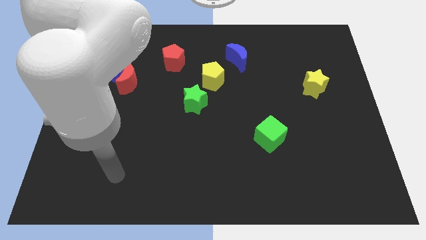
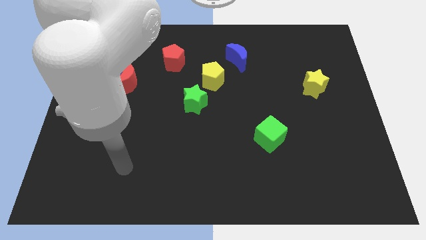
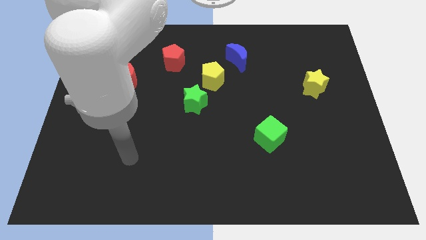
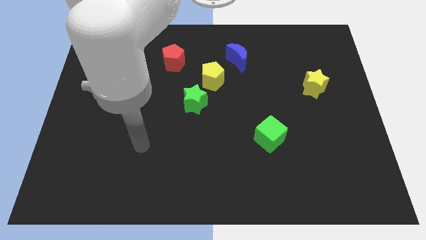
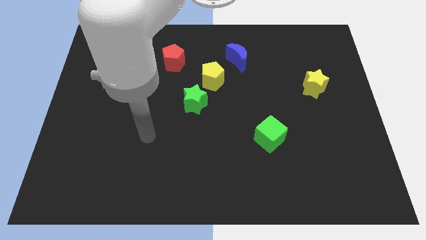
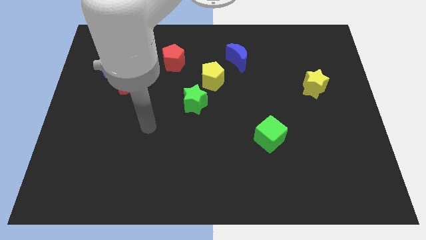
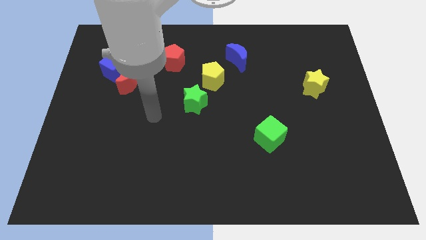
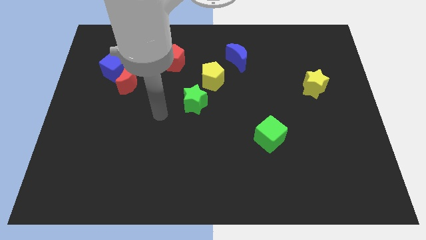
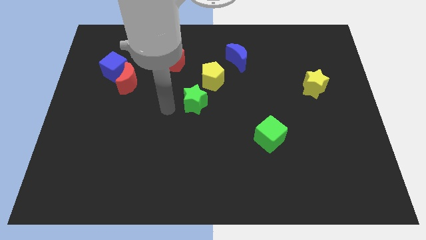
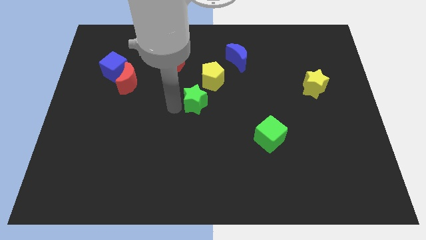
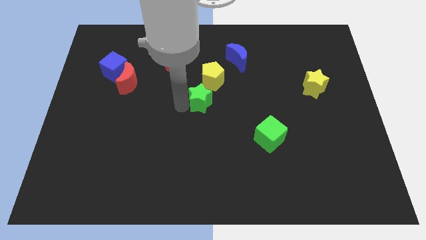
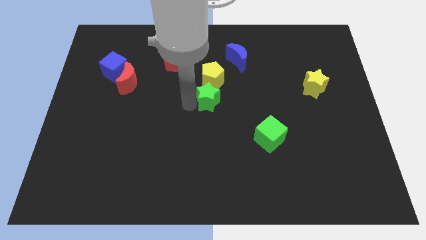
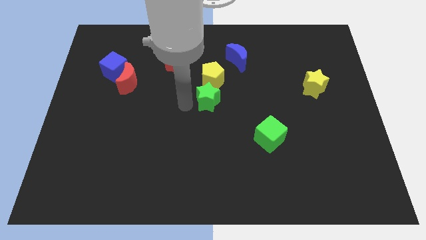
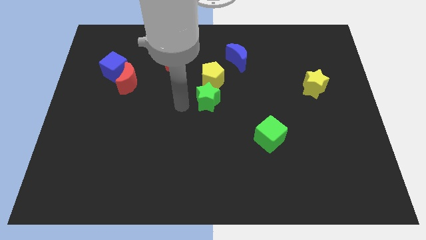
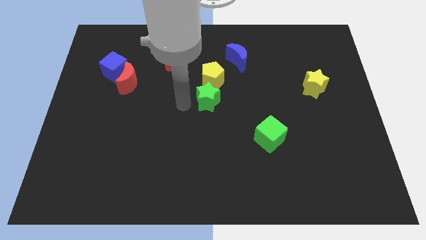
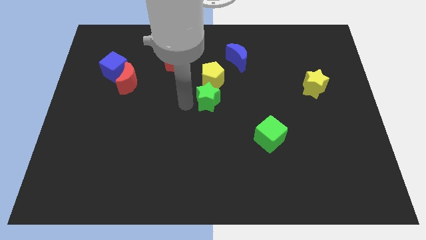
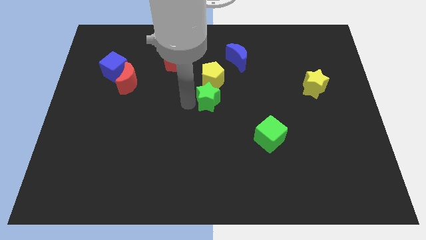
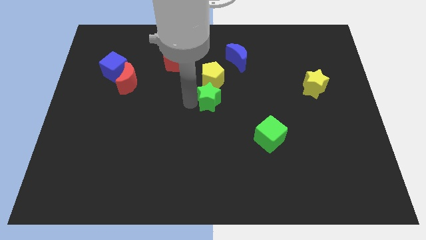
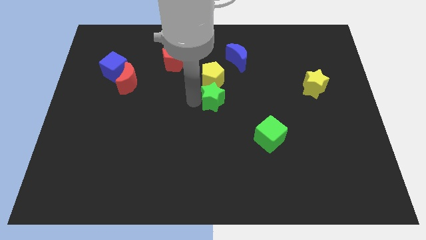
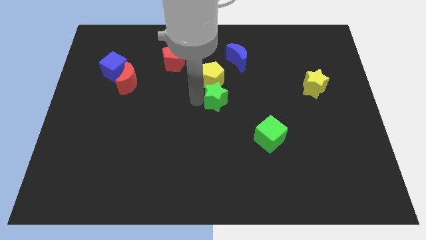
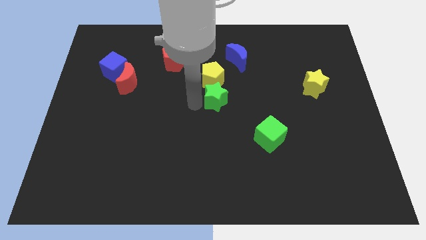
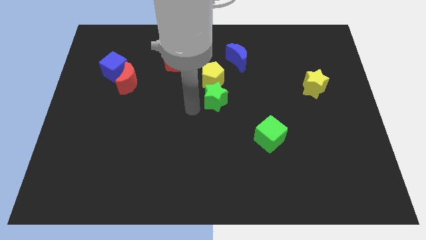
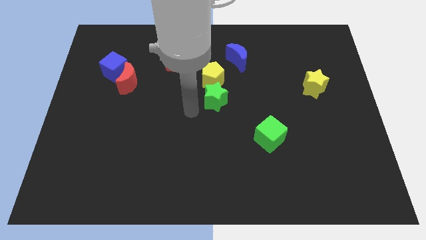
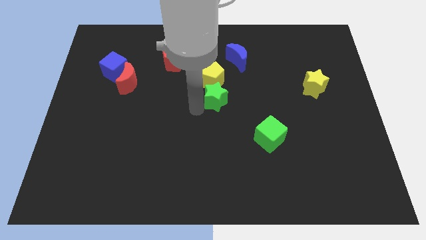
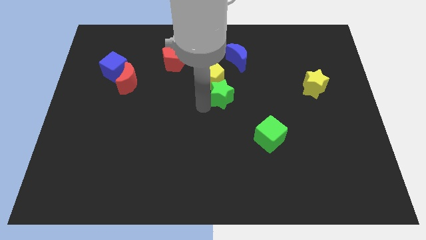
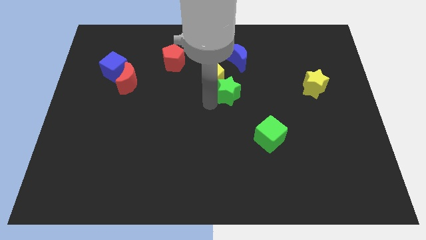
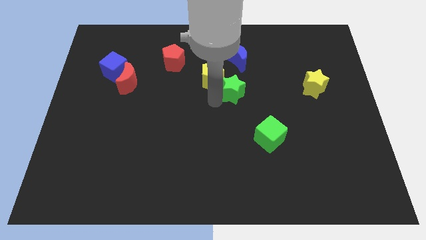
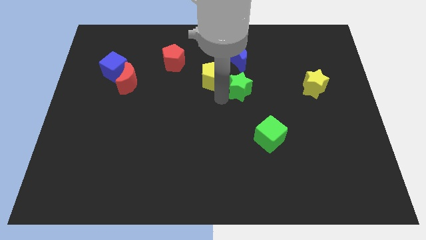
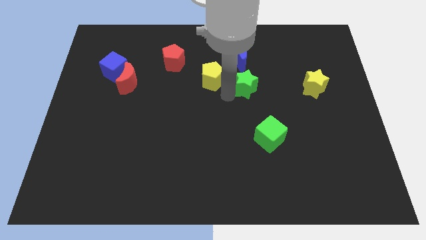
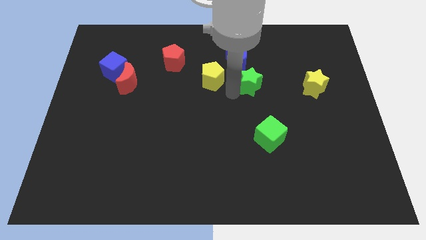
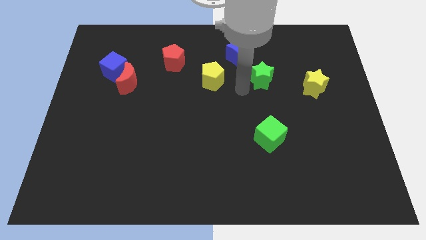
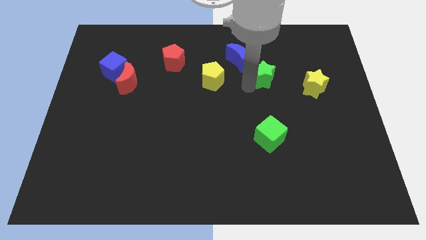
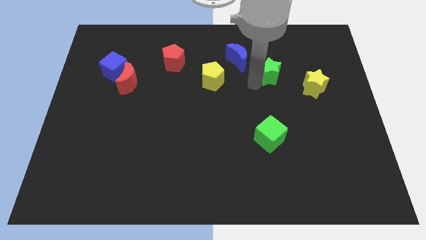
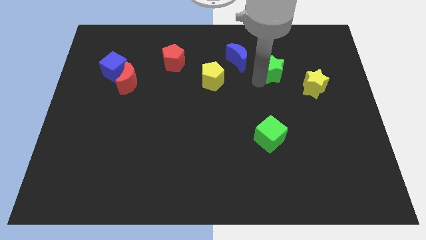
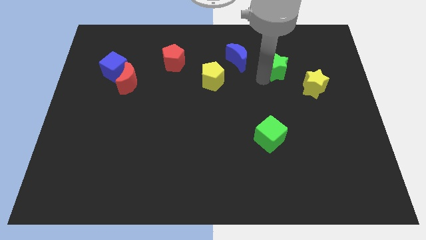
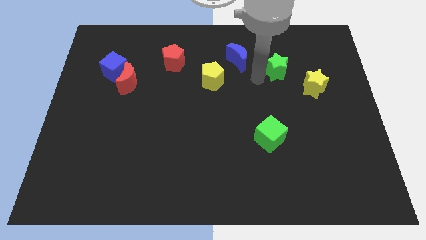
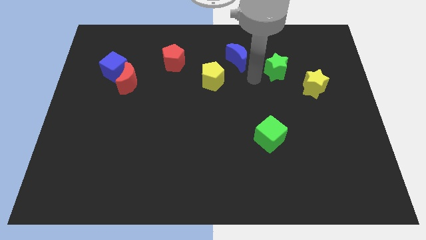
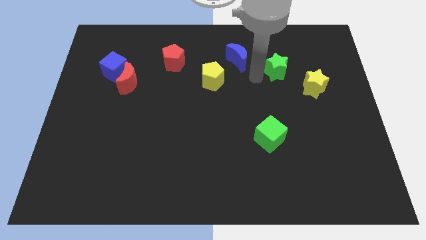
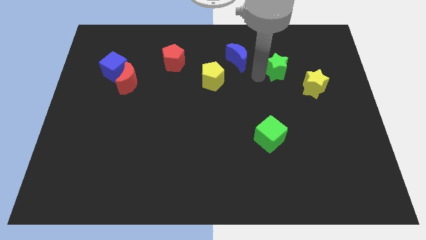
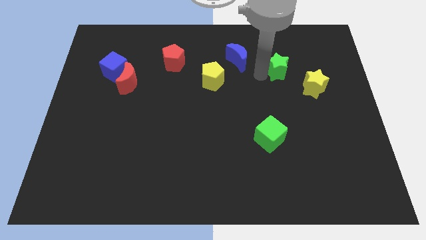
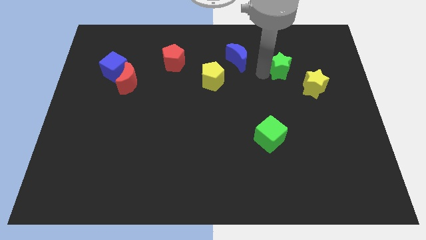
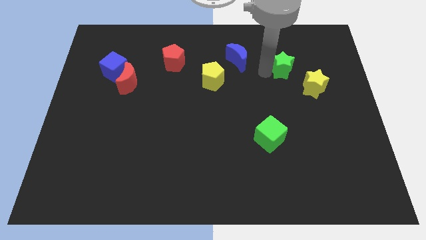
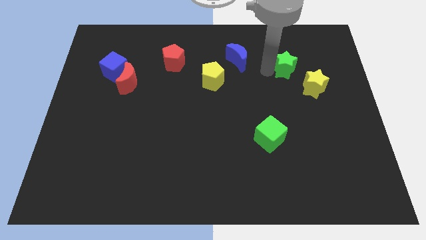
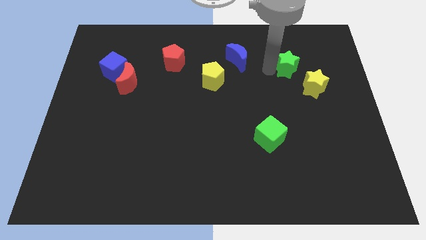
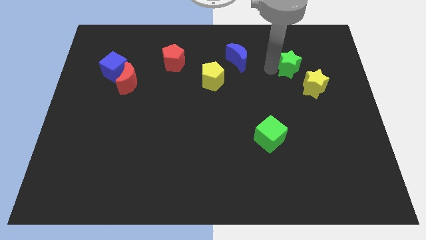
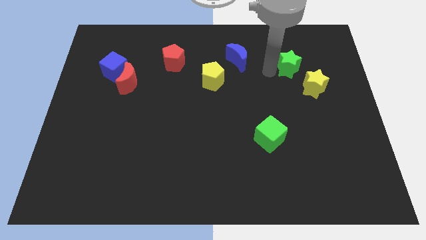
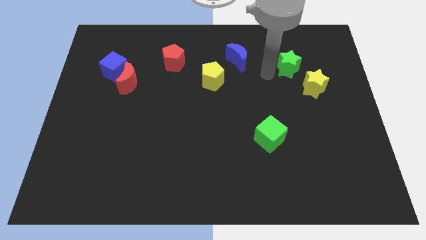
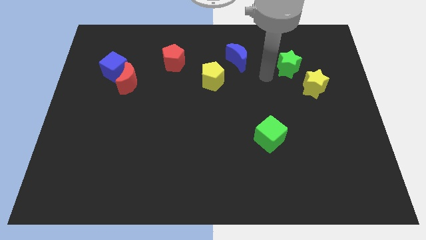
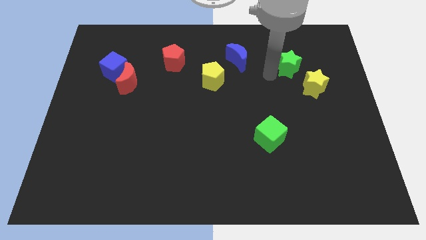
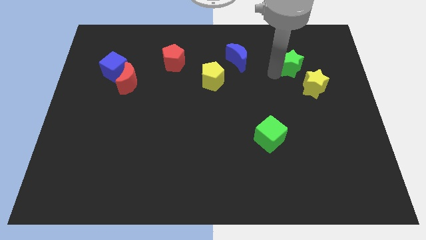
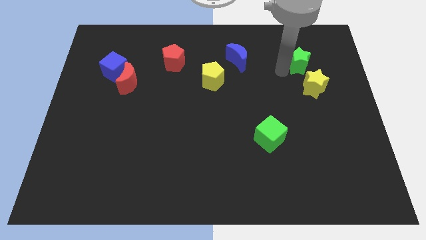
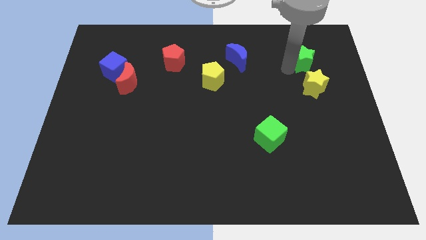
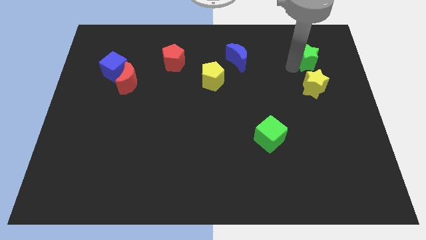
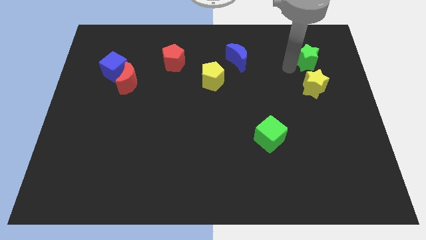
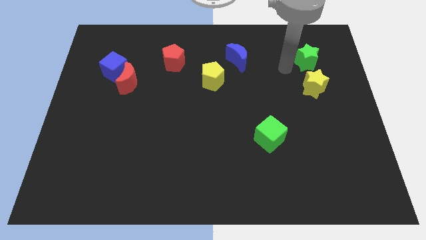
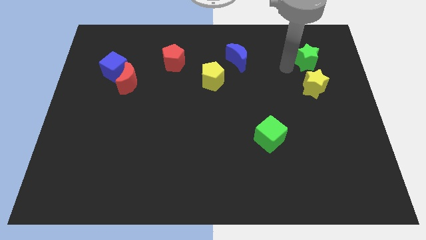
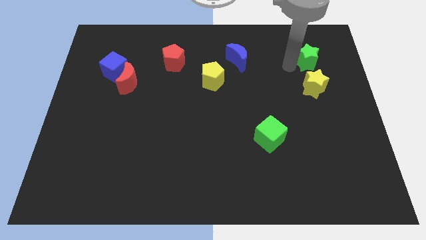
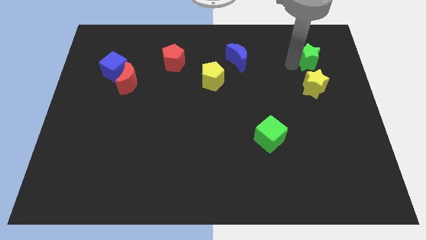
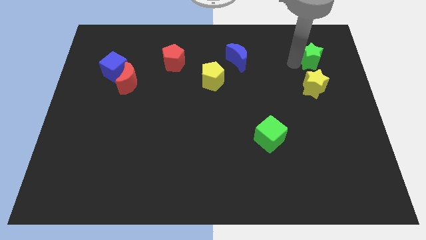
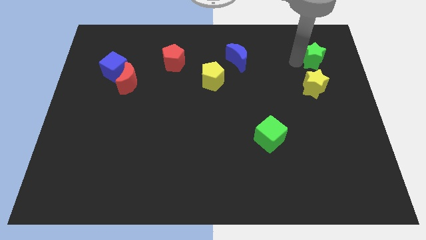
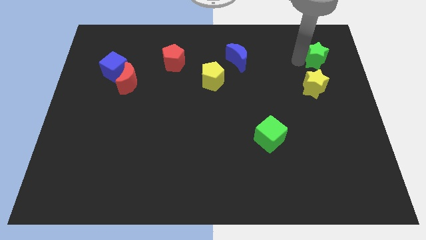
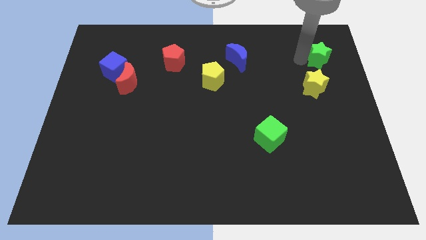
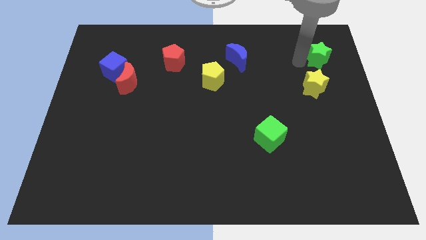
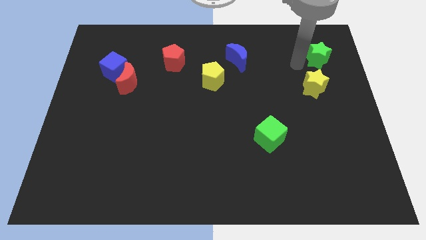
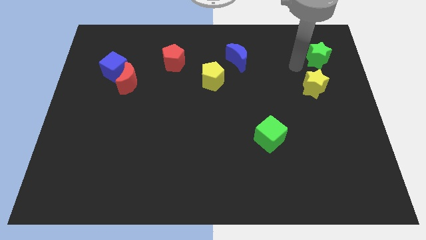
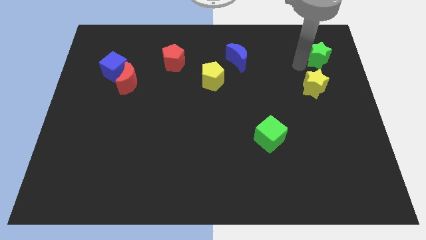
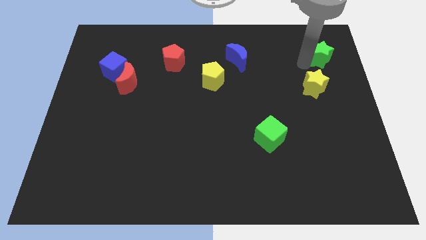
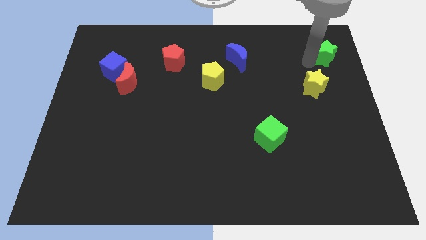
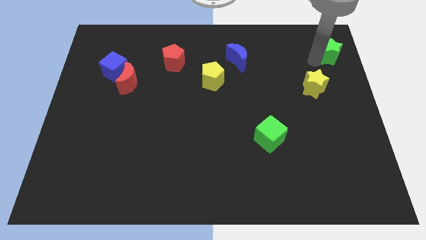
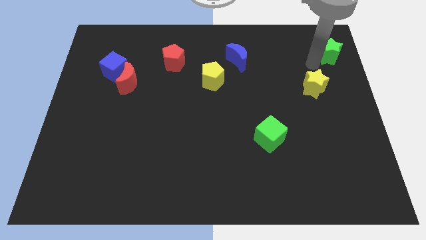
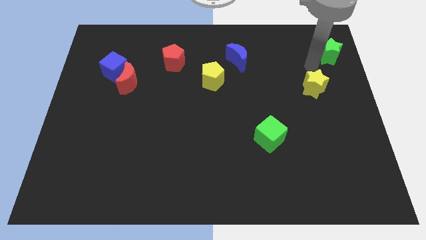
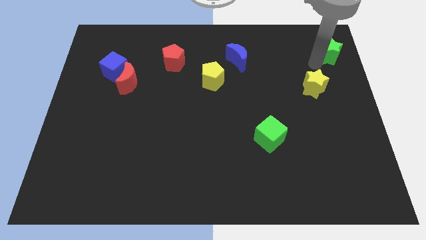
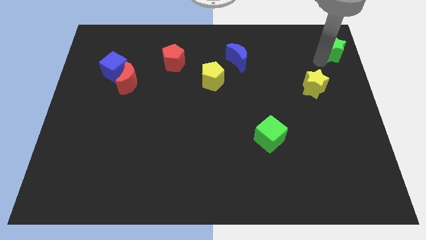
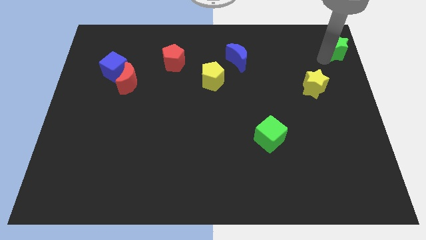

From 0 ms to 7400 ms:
put the green star to the upper right corner
